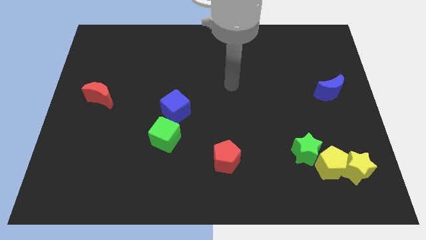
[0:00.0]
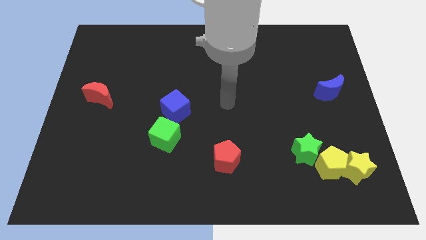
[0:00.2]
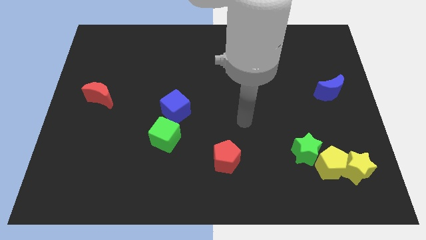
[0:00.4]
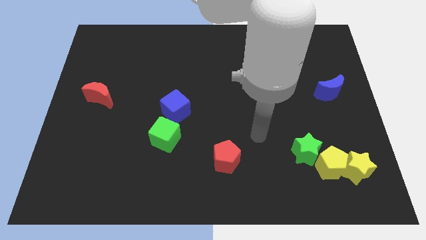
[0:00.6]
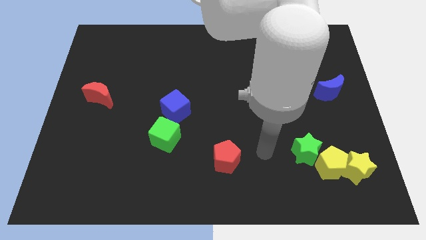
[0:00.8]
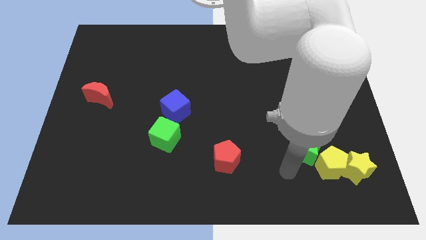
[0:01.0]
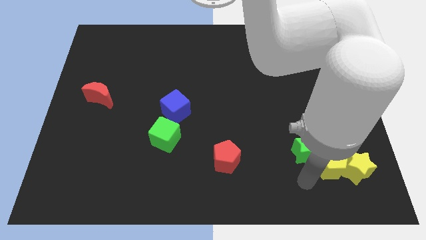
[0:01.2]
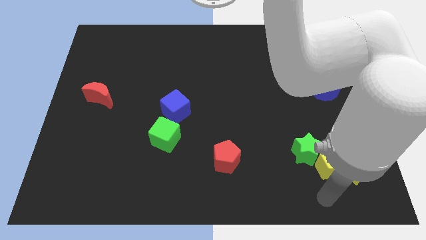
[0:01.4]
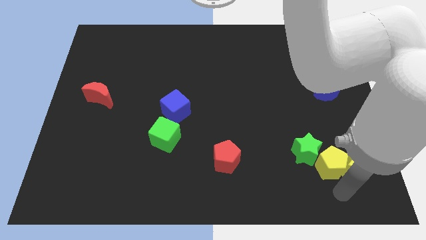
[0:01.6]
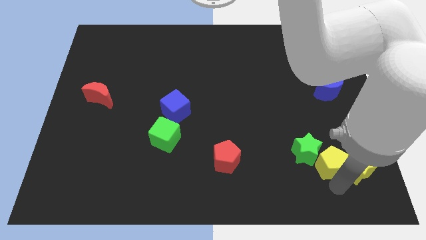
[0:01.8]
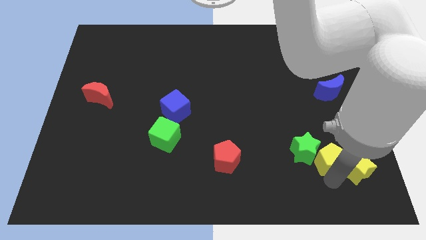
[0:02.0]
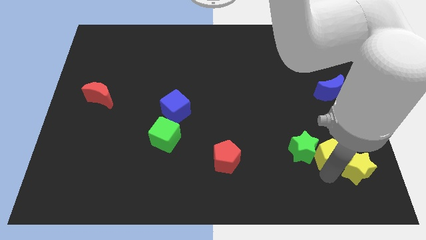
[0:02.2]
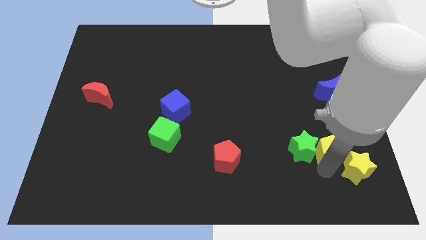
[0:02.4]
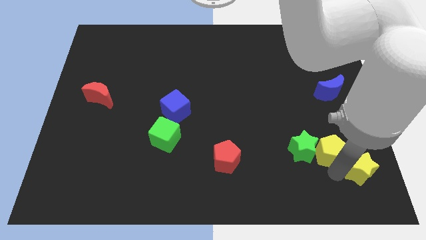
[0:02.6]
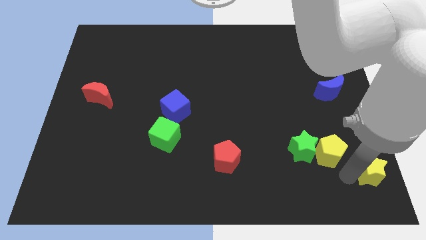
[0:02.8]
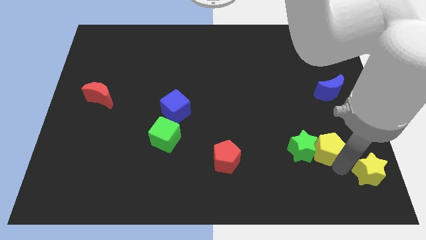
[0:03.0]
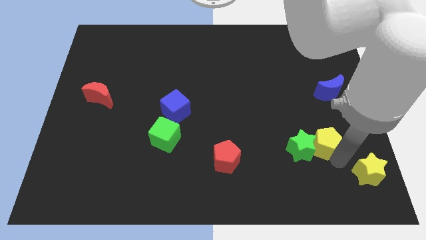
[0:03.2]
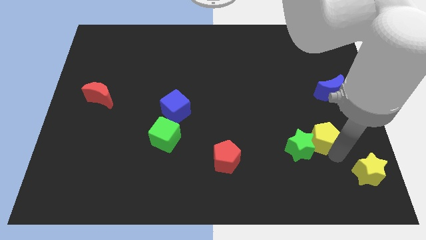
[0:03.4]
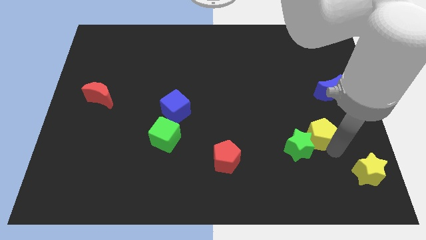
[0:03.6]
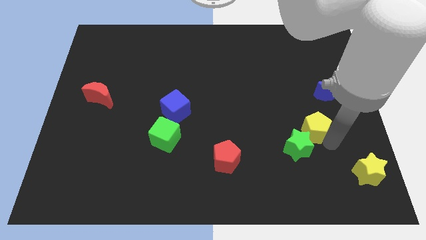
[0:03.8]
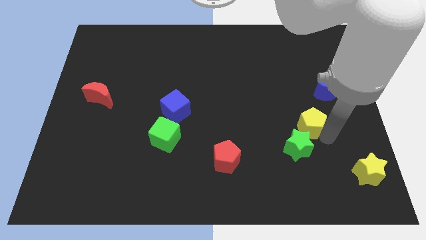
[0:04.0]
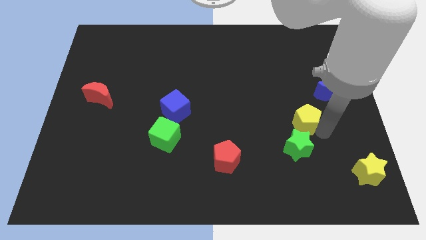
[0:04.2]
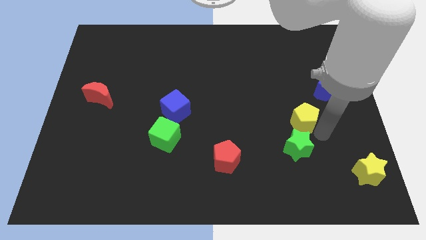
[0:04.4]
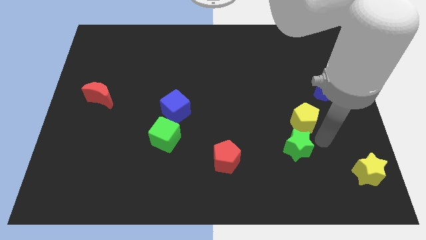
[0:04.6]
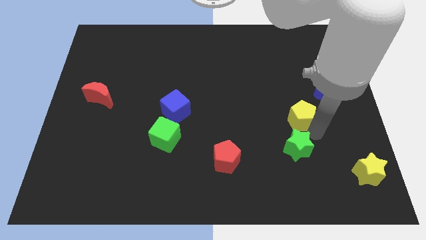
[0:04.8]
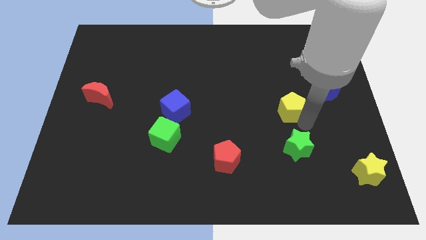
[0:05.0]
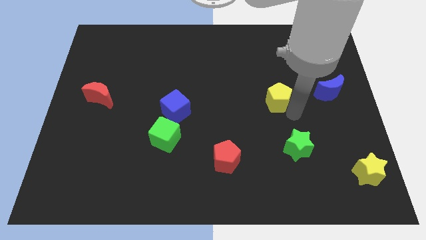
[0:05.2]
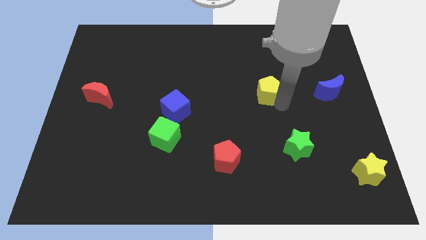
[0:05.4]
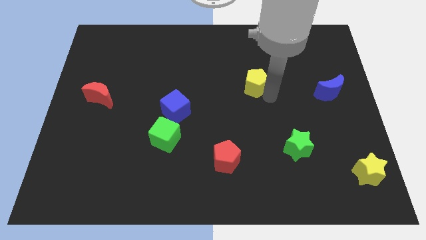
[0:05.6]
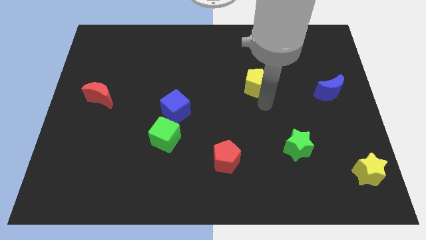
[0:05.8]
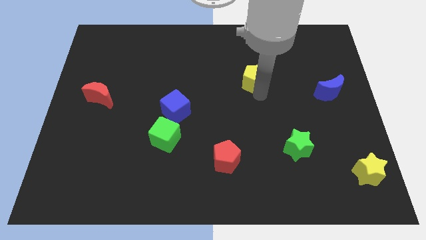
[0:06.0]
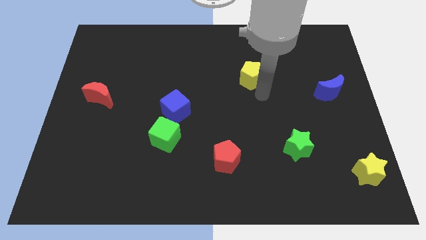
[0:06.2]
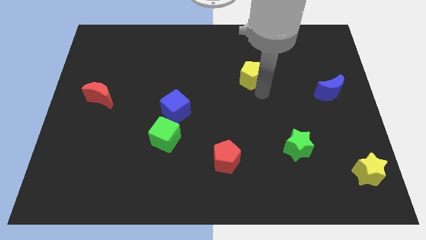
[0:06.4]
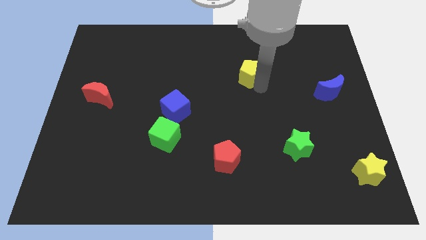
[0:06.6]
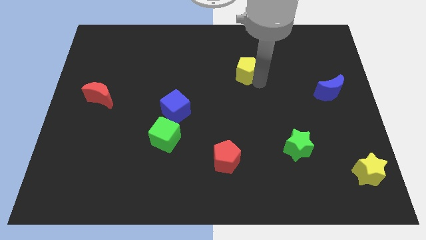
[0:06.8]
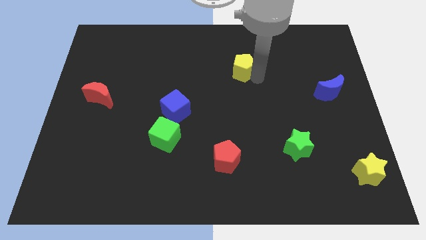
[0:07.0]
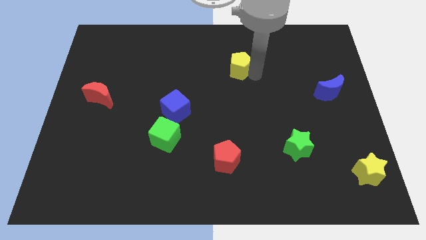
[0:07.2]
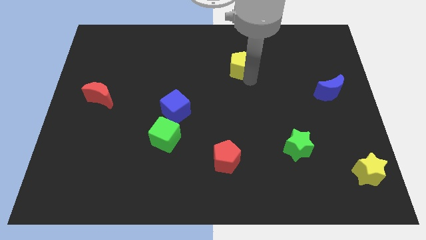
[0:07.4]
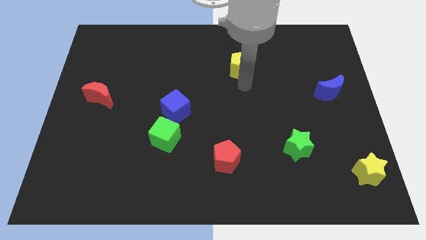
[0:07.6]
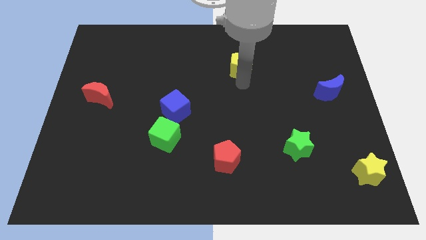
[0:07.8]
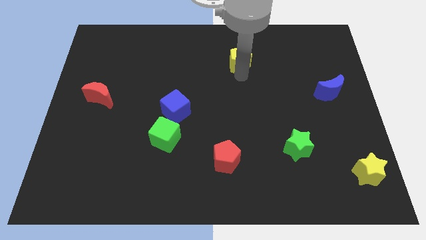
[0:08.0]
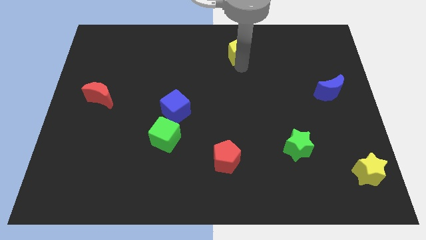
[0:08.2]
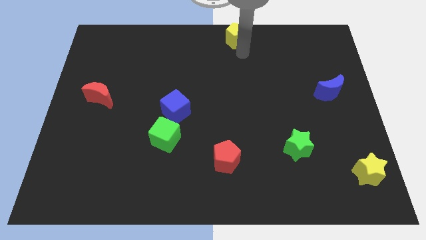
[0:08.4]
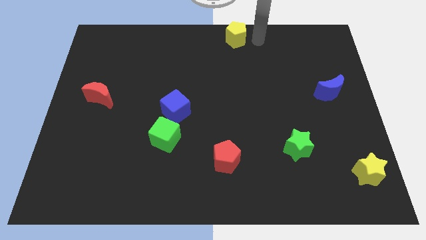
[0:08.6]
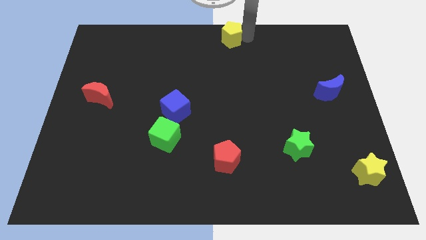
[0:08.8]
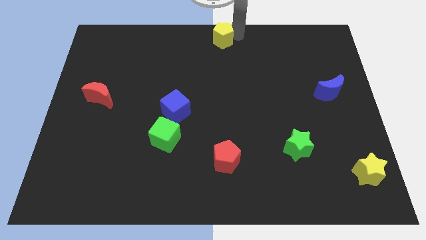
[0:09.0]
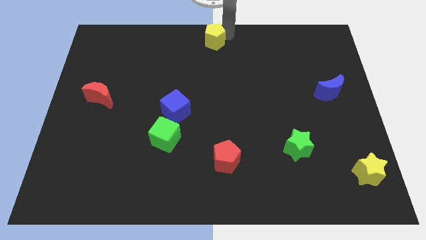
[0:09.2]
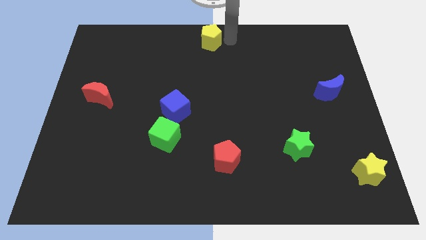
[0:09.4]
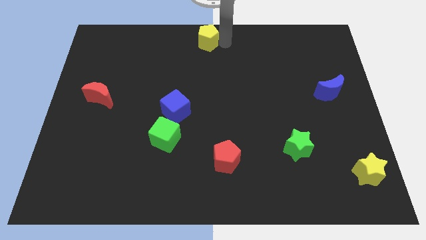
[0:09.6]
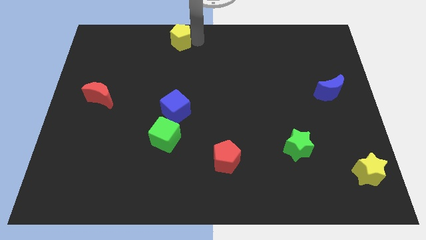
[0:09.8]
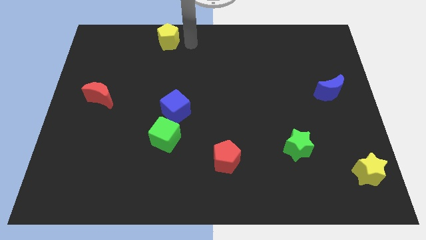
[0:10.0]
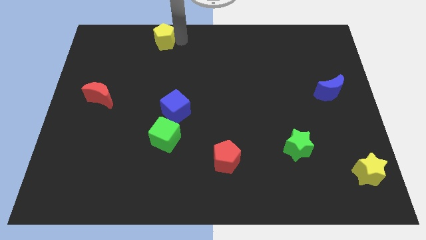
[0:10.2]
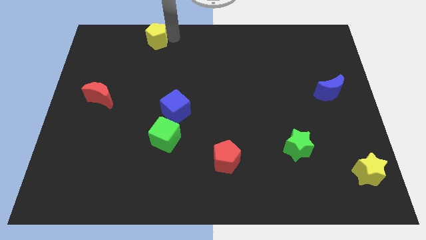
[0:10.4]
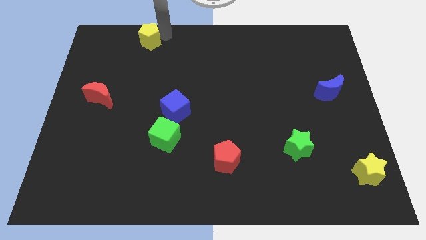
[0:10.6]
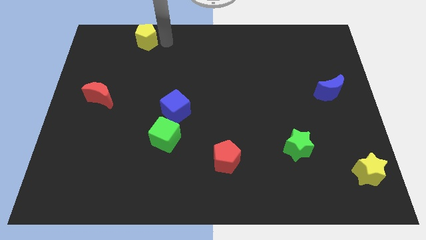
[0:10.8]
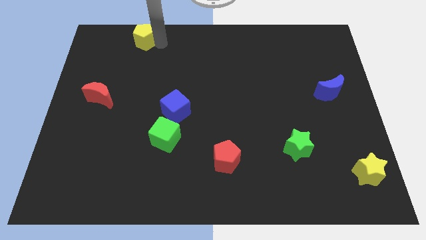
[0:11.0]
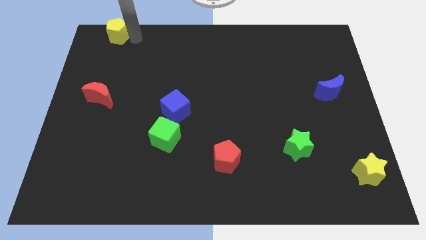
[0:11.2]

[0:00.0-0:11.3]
push the yellow pentagon to the top left
